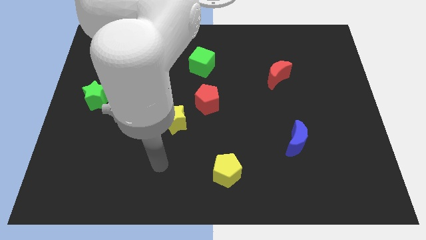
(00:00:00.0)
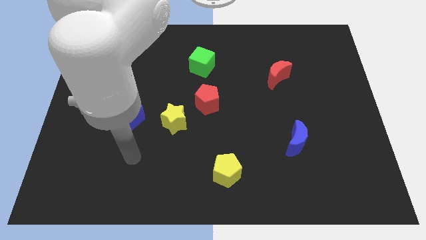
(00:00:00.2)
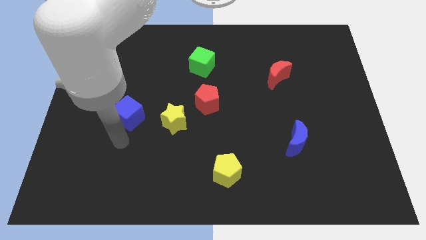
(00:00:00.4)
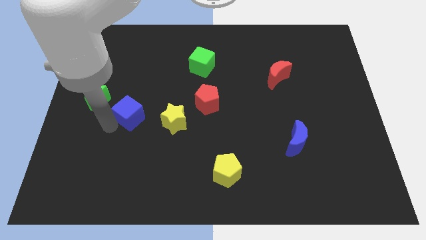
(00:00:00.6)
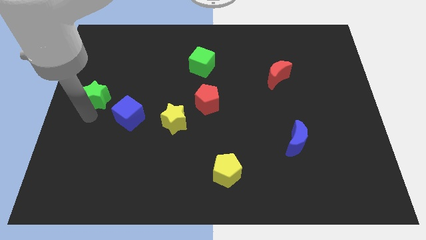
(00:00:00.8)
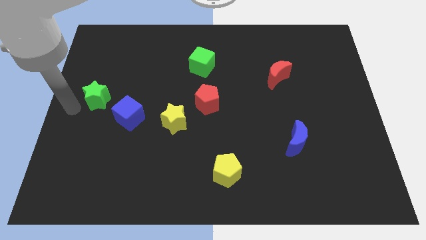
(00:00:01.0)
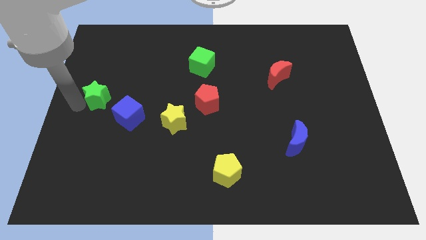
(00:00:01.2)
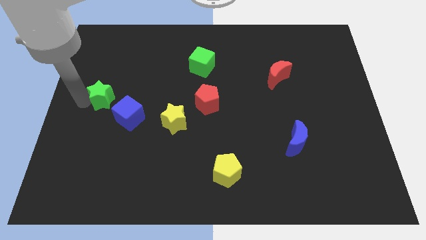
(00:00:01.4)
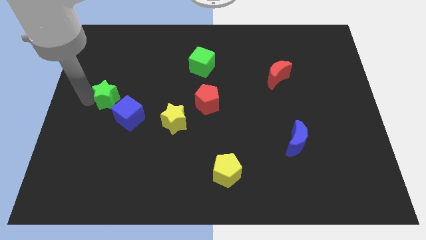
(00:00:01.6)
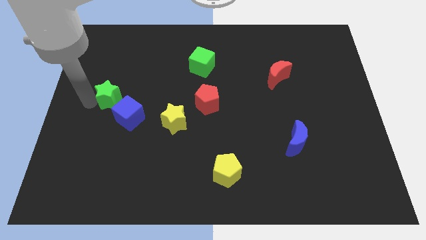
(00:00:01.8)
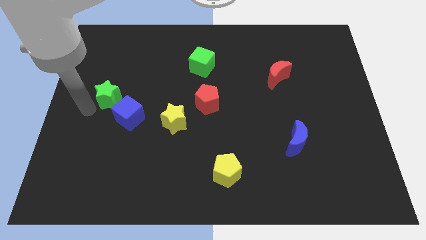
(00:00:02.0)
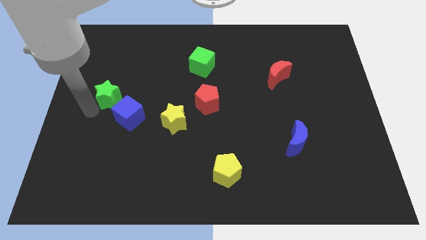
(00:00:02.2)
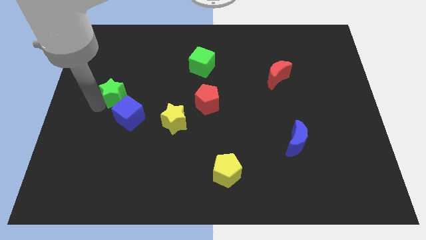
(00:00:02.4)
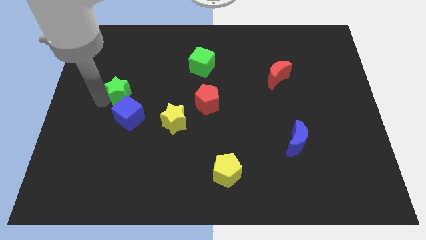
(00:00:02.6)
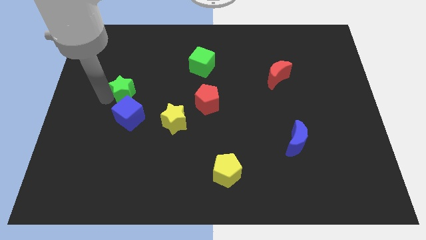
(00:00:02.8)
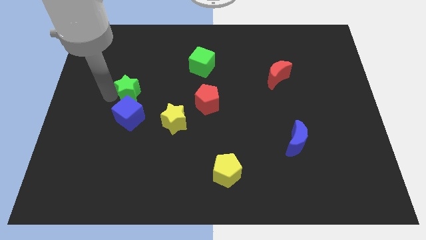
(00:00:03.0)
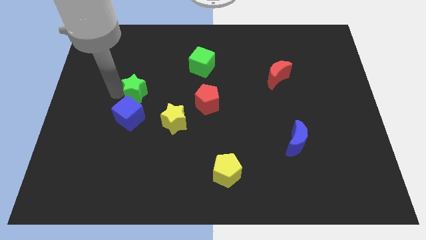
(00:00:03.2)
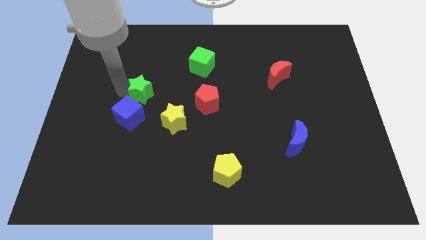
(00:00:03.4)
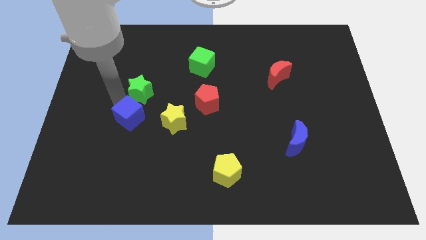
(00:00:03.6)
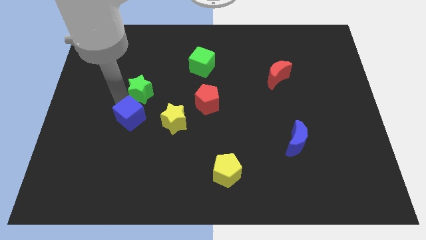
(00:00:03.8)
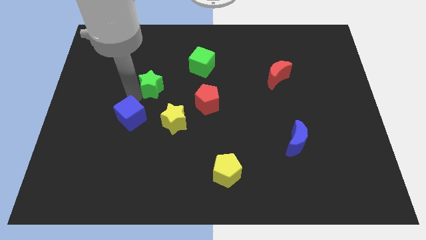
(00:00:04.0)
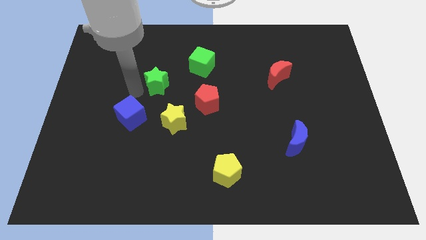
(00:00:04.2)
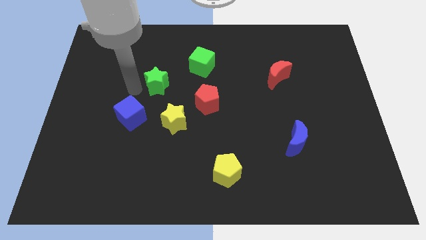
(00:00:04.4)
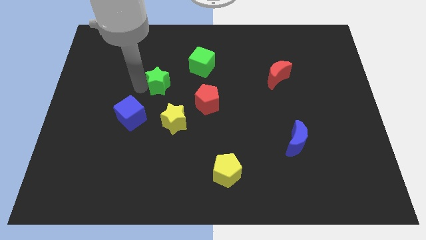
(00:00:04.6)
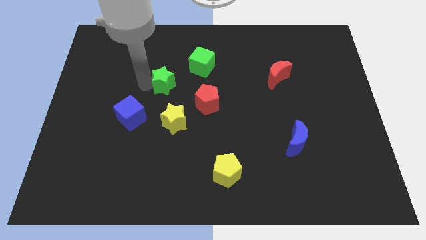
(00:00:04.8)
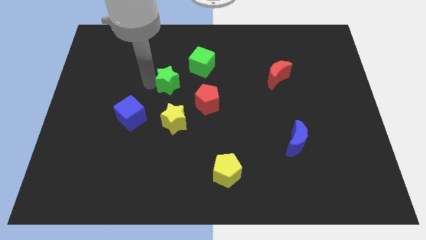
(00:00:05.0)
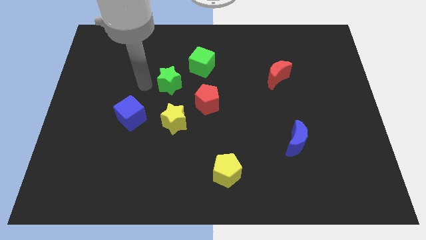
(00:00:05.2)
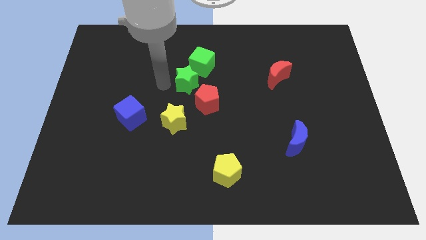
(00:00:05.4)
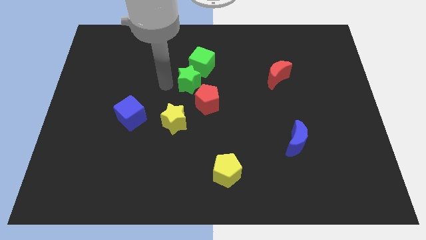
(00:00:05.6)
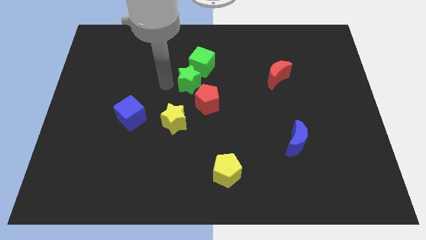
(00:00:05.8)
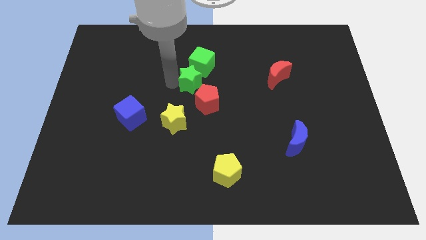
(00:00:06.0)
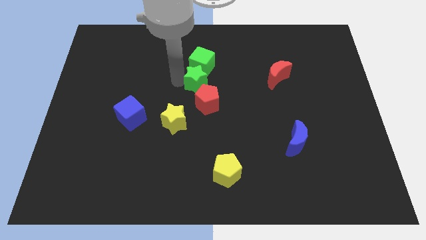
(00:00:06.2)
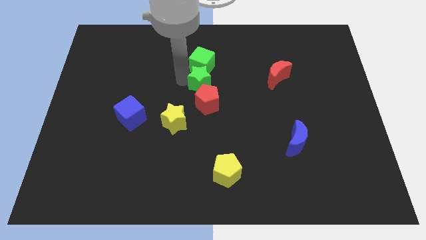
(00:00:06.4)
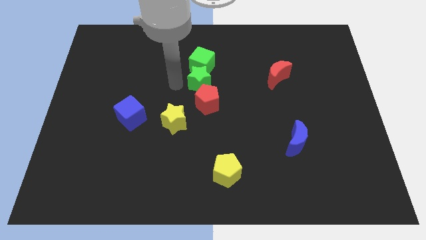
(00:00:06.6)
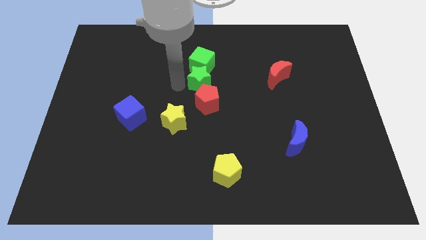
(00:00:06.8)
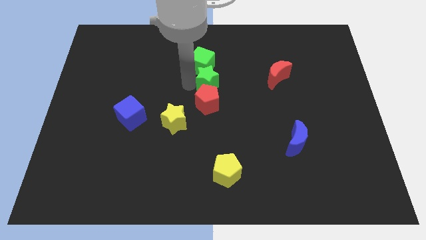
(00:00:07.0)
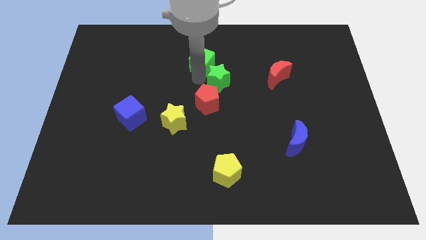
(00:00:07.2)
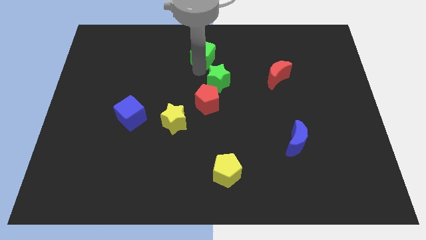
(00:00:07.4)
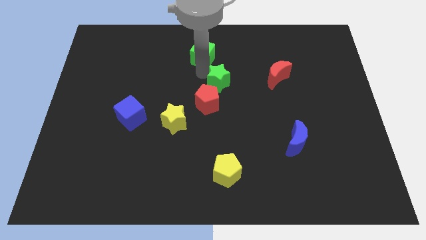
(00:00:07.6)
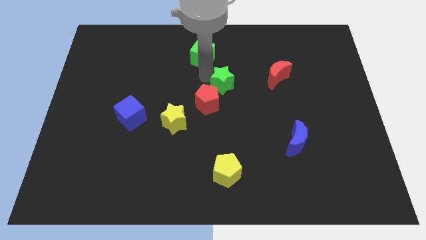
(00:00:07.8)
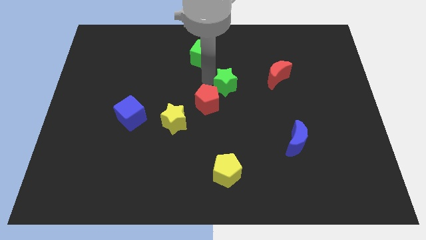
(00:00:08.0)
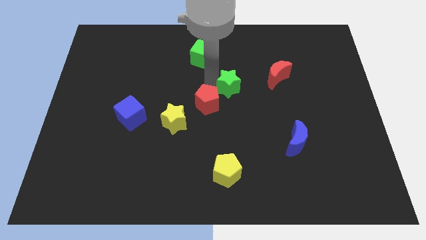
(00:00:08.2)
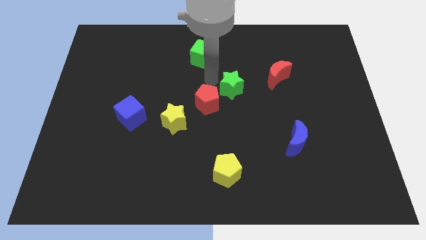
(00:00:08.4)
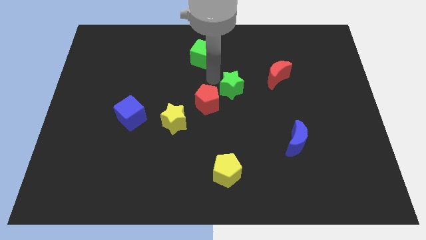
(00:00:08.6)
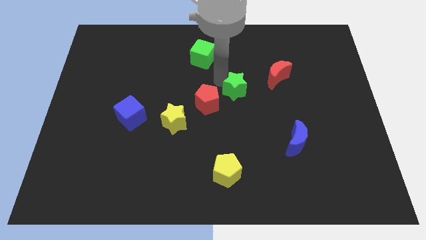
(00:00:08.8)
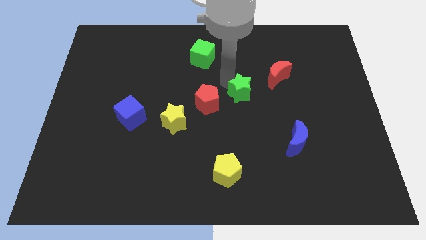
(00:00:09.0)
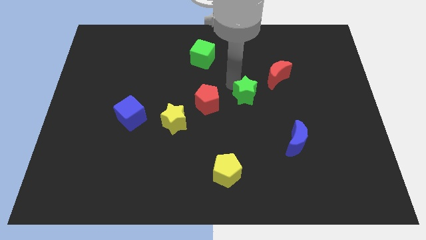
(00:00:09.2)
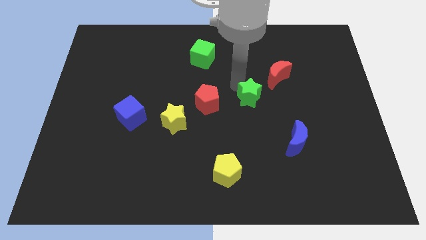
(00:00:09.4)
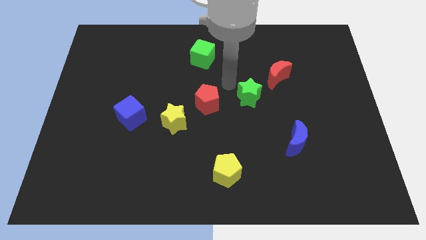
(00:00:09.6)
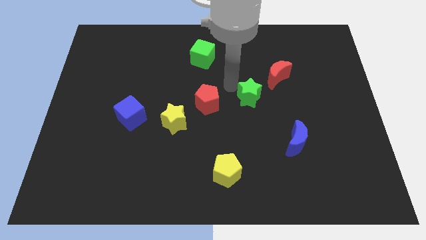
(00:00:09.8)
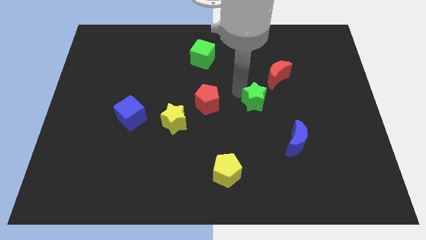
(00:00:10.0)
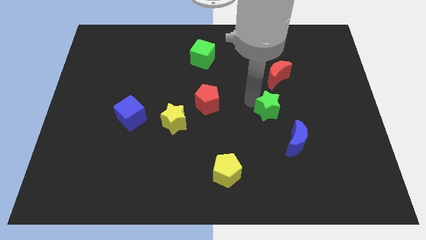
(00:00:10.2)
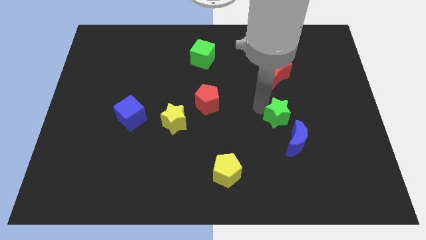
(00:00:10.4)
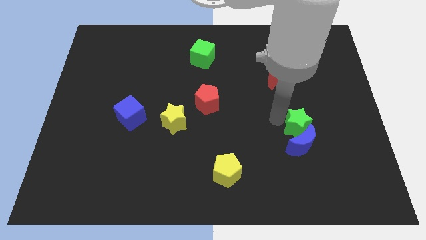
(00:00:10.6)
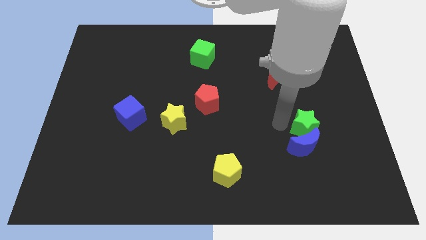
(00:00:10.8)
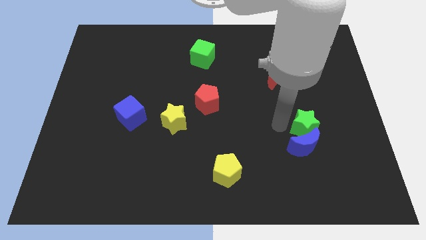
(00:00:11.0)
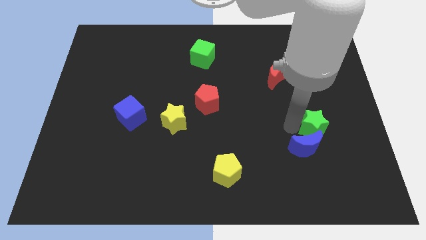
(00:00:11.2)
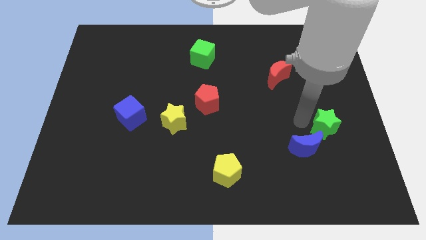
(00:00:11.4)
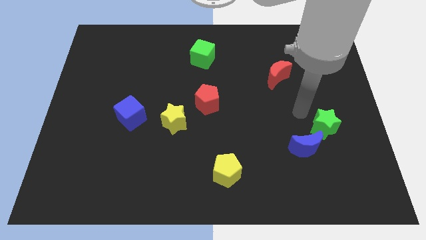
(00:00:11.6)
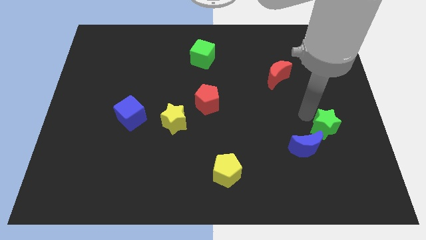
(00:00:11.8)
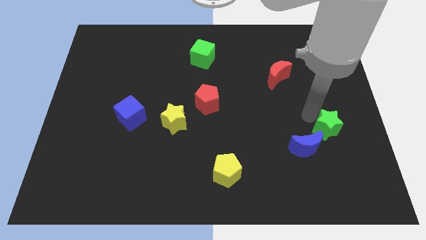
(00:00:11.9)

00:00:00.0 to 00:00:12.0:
put the green star to the right side of the blue moon
